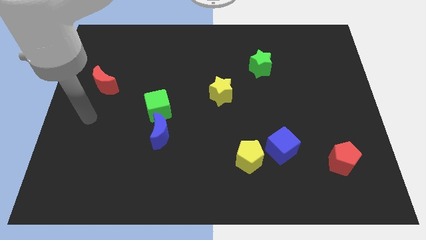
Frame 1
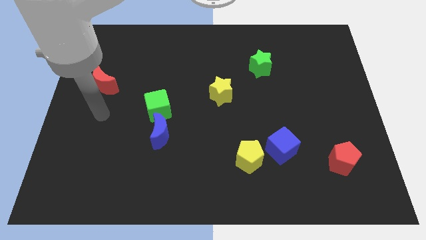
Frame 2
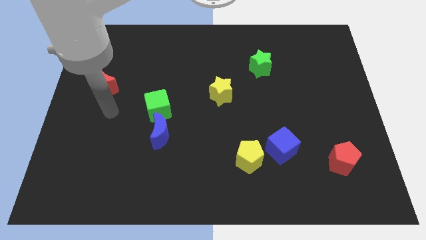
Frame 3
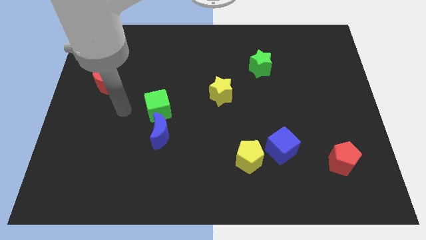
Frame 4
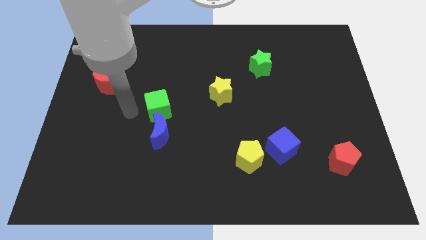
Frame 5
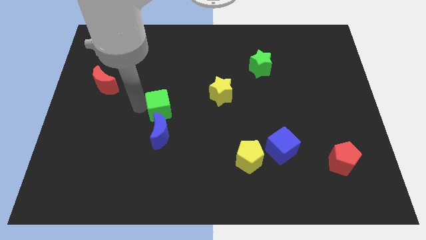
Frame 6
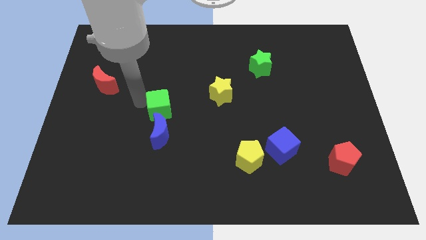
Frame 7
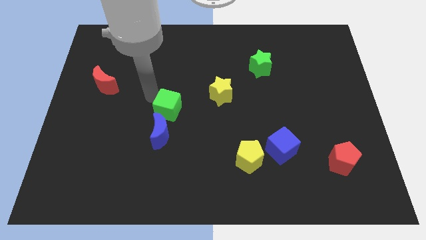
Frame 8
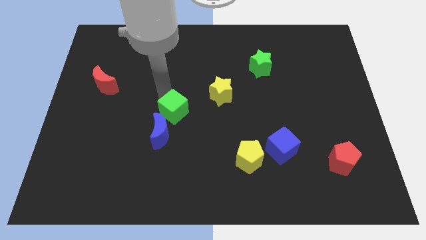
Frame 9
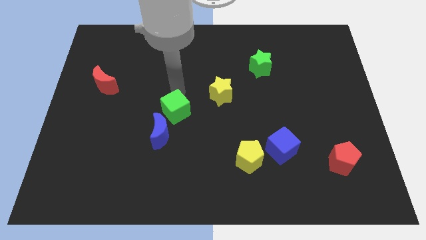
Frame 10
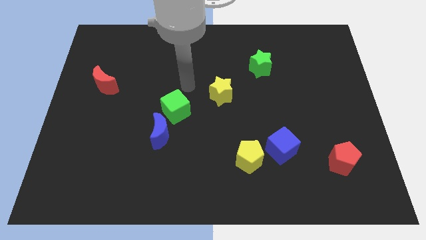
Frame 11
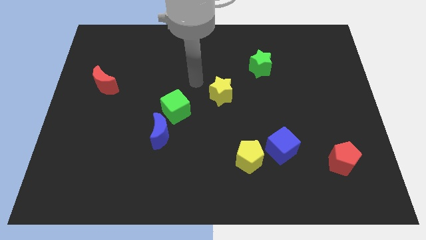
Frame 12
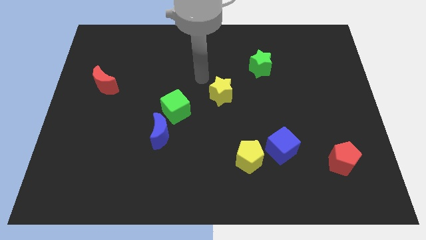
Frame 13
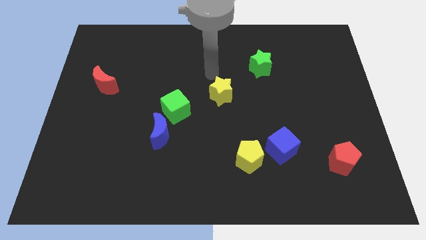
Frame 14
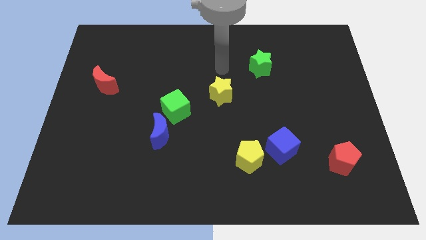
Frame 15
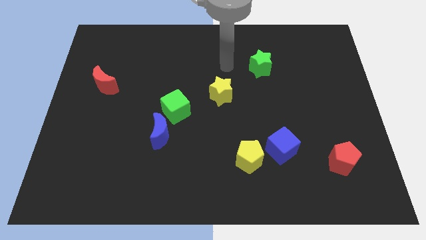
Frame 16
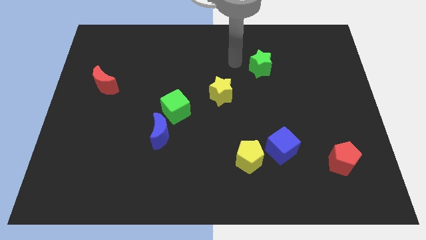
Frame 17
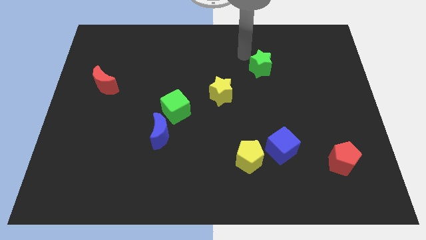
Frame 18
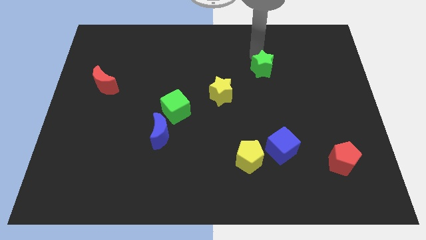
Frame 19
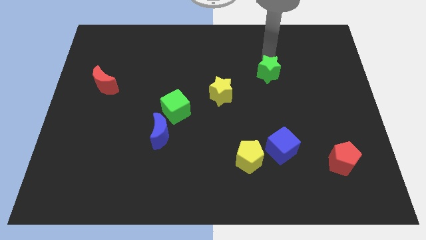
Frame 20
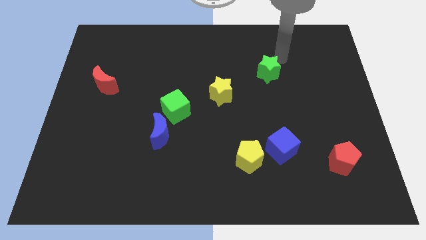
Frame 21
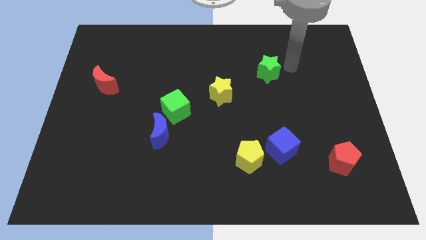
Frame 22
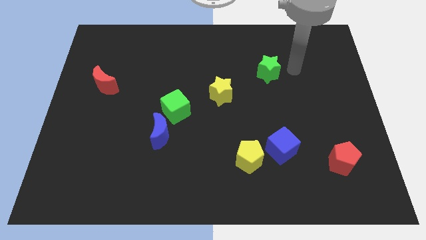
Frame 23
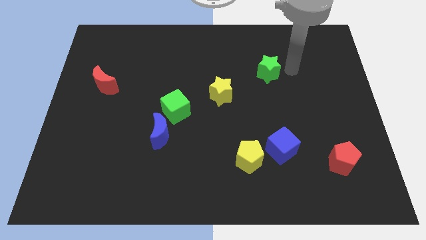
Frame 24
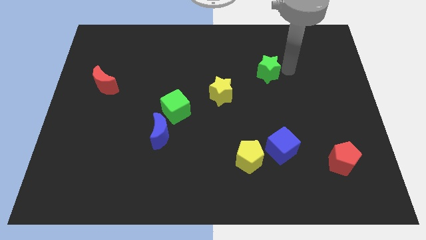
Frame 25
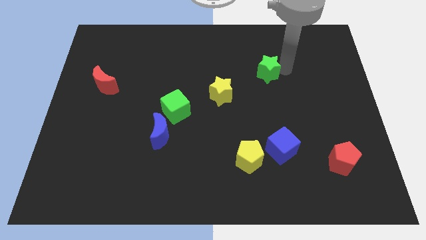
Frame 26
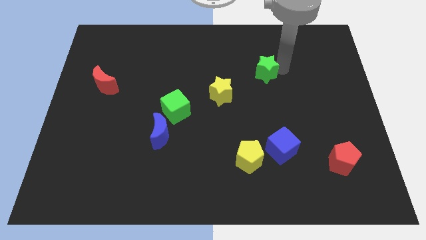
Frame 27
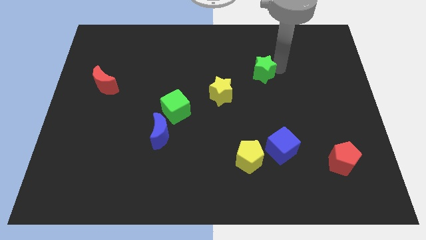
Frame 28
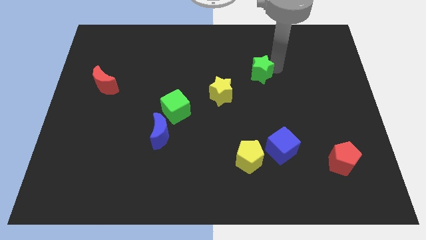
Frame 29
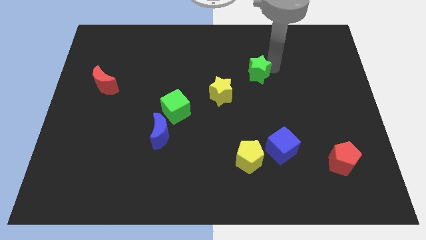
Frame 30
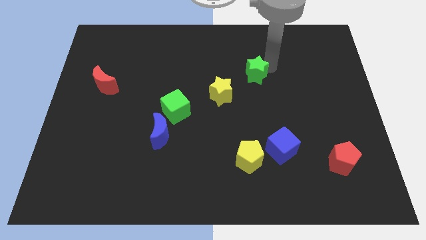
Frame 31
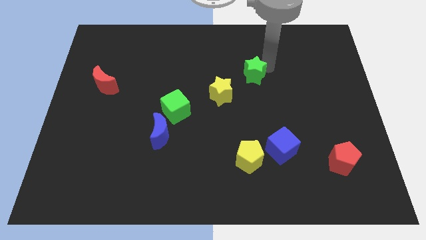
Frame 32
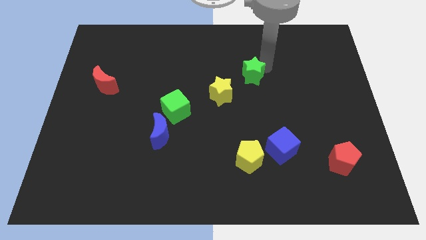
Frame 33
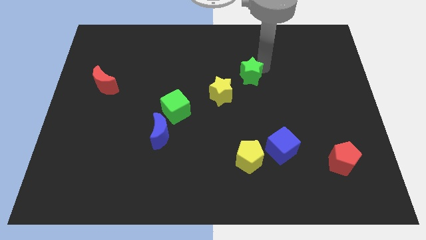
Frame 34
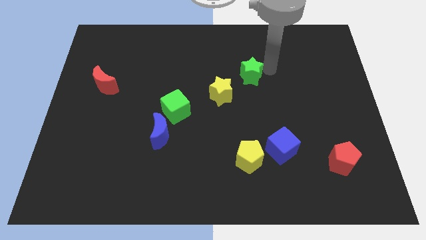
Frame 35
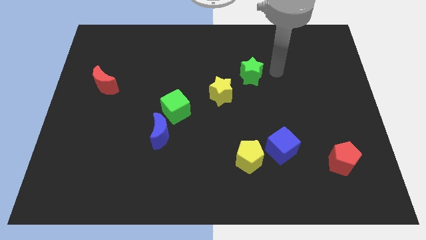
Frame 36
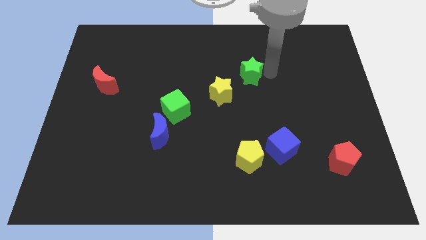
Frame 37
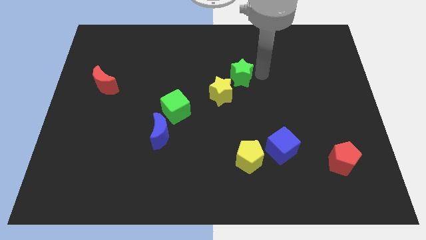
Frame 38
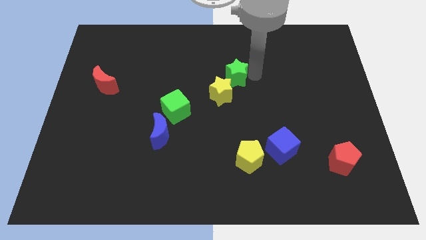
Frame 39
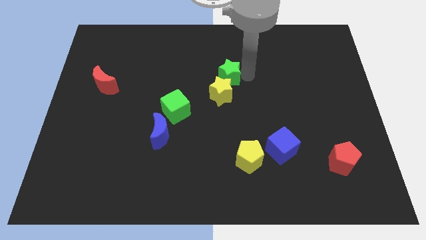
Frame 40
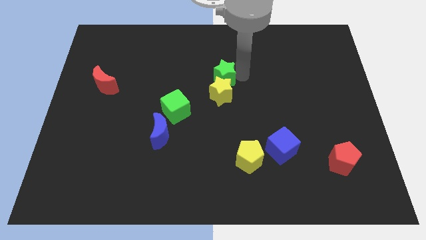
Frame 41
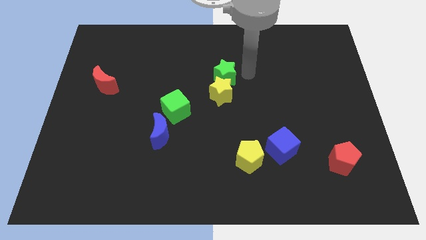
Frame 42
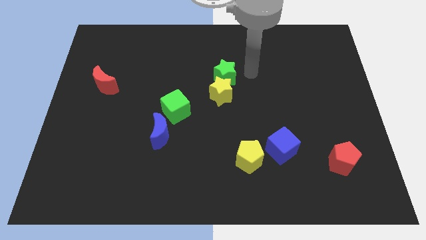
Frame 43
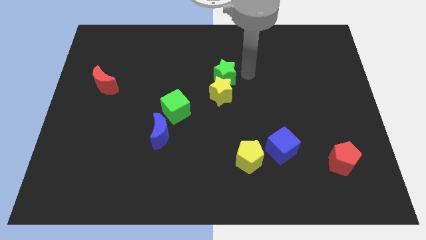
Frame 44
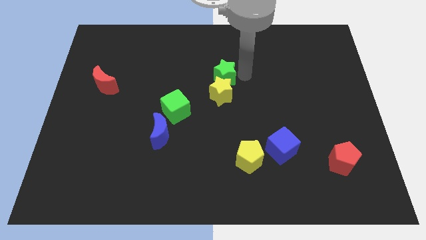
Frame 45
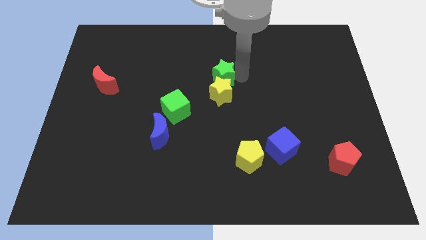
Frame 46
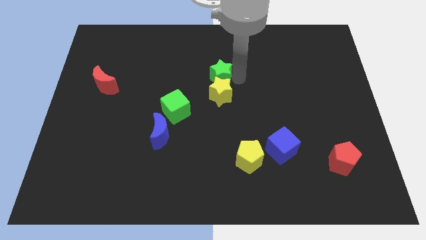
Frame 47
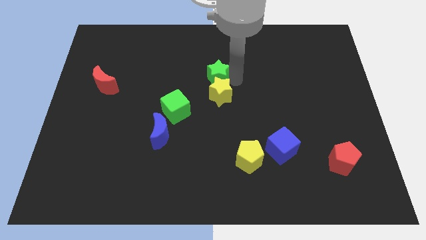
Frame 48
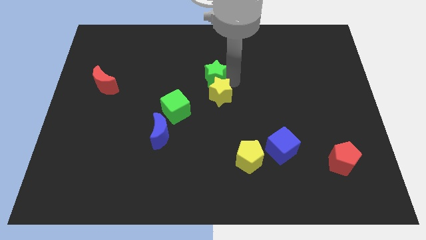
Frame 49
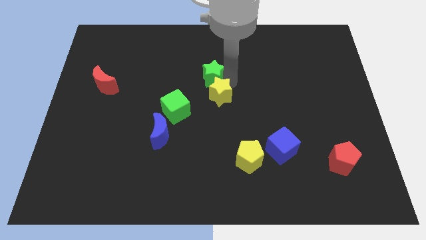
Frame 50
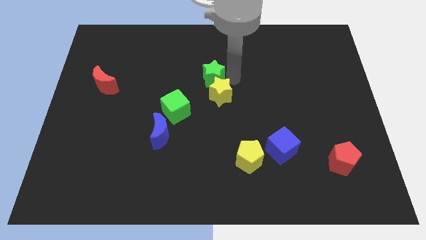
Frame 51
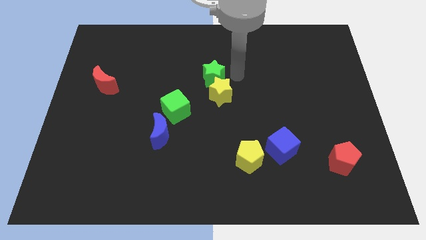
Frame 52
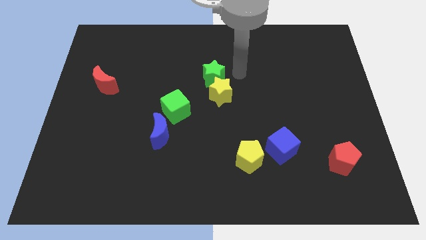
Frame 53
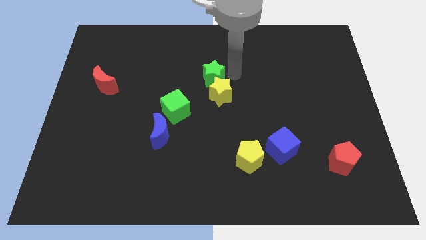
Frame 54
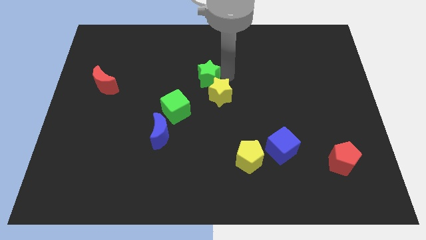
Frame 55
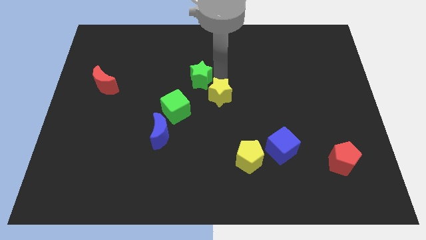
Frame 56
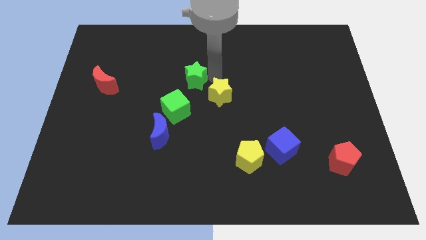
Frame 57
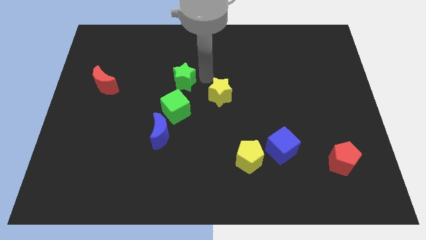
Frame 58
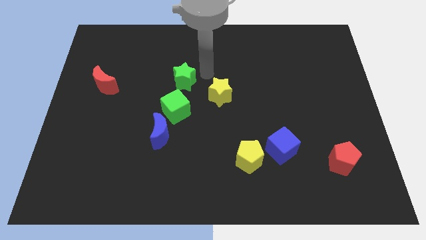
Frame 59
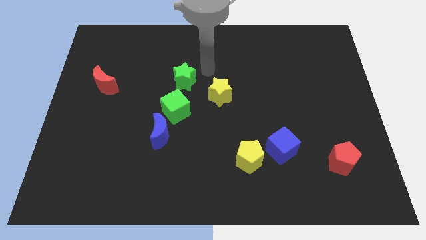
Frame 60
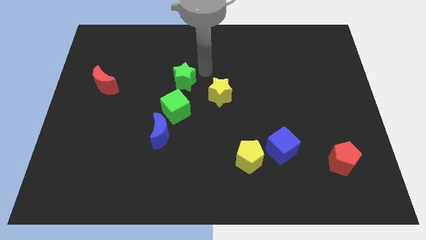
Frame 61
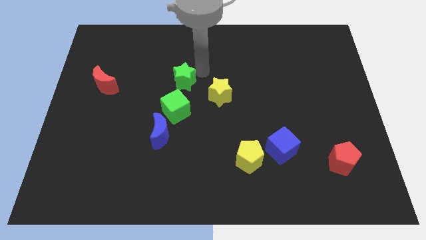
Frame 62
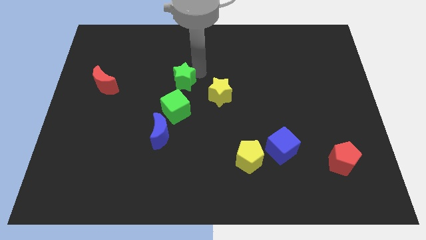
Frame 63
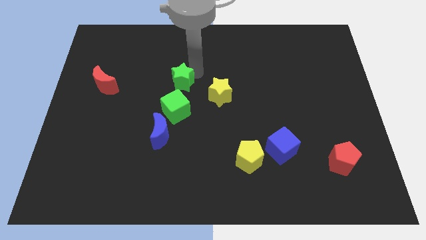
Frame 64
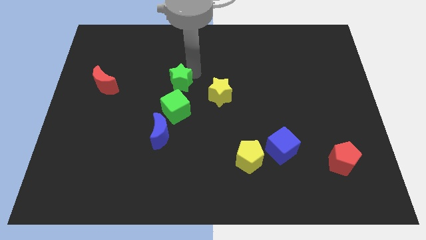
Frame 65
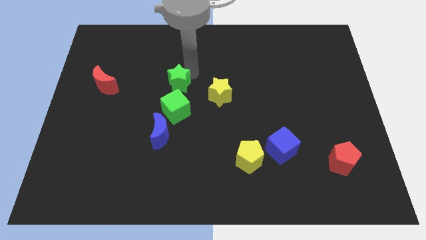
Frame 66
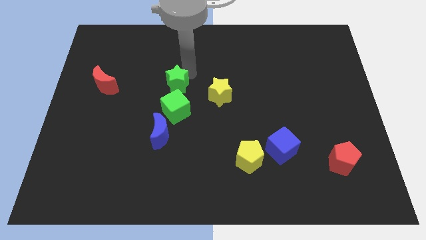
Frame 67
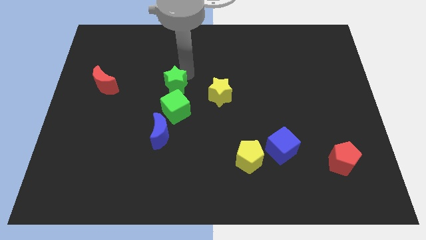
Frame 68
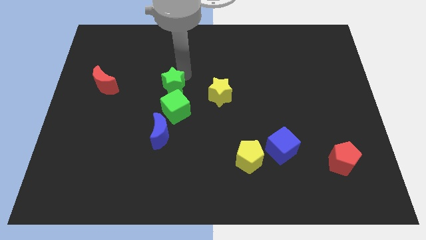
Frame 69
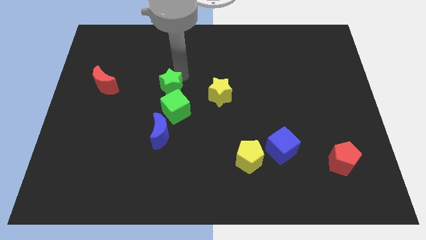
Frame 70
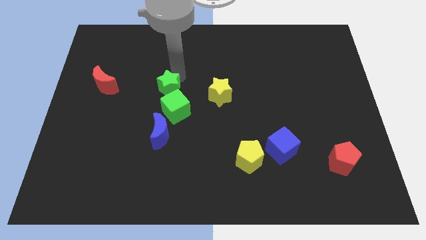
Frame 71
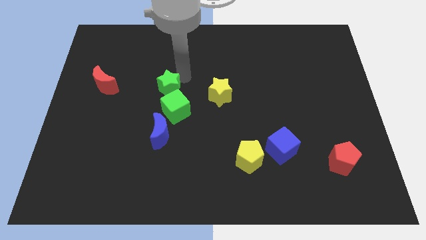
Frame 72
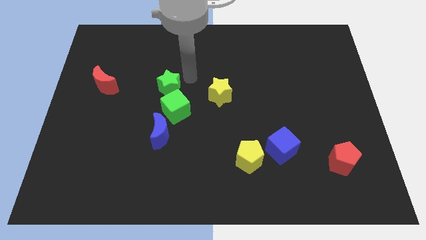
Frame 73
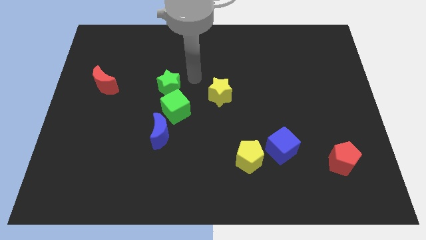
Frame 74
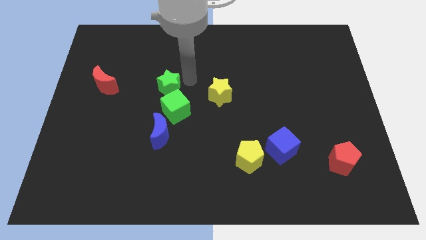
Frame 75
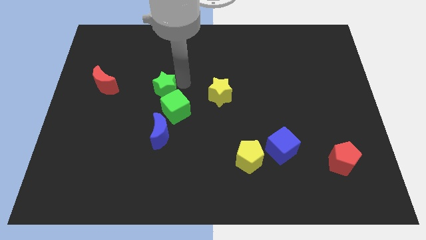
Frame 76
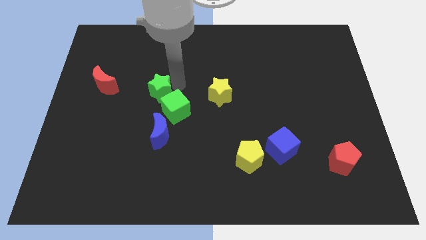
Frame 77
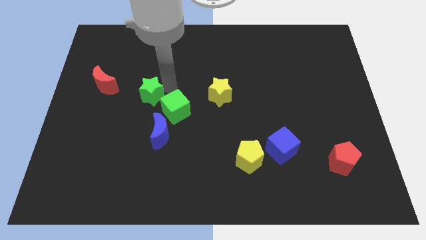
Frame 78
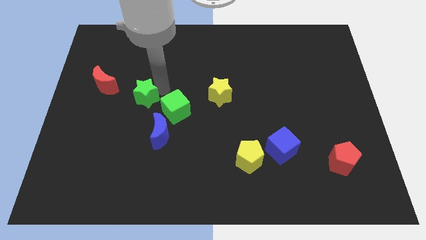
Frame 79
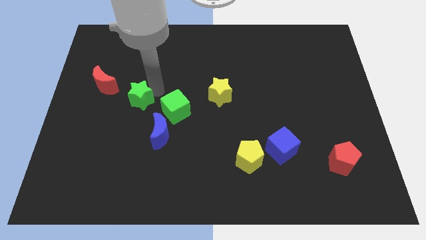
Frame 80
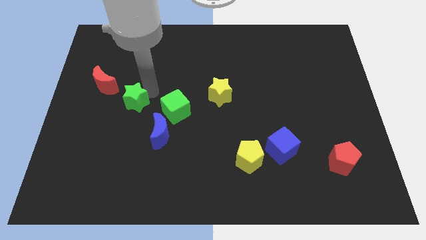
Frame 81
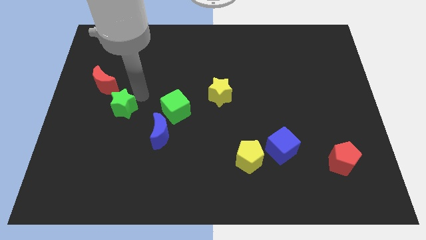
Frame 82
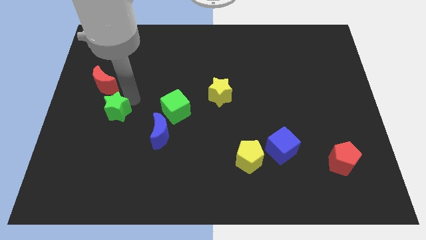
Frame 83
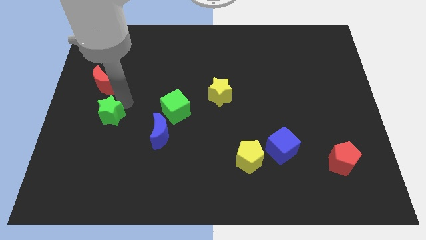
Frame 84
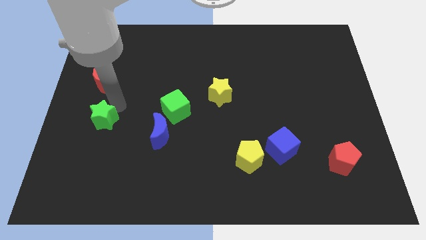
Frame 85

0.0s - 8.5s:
put the green star to the left of the blue moon
